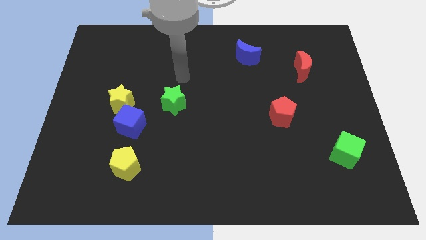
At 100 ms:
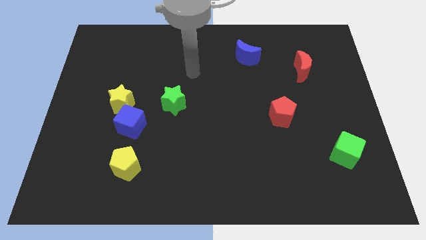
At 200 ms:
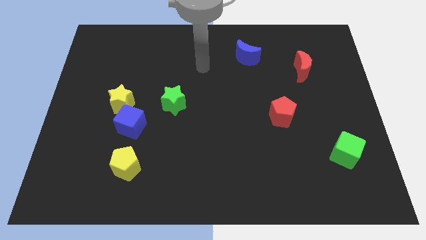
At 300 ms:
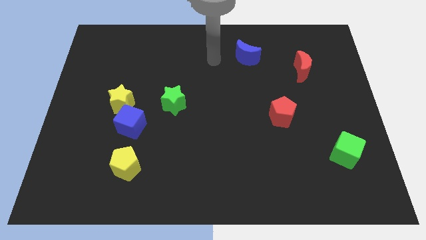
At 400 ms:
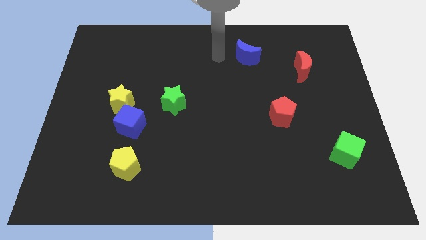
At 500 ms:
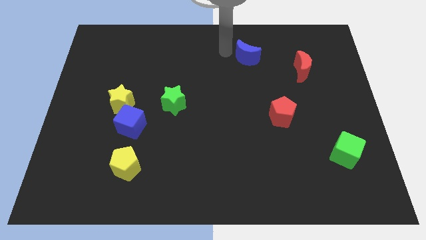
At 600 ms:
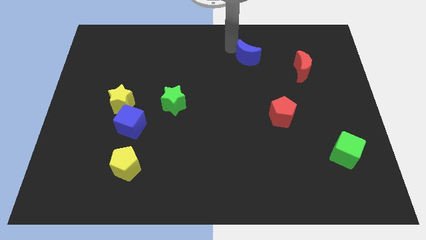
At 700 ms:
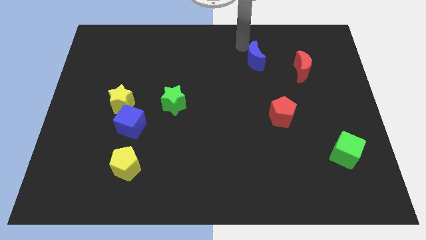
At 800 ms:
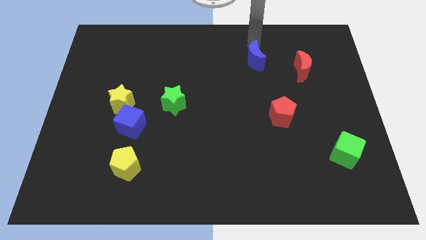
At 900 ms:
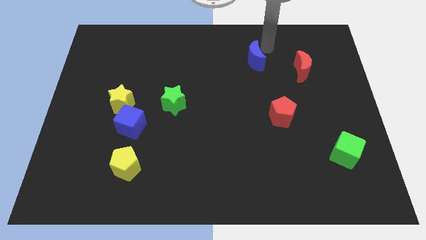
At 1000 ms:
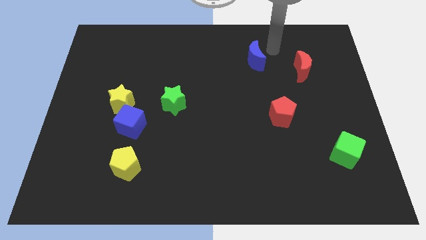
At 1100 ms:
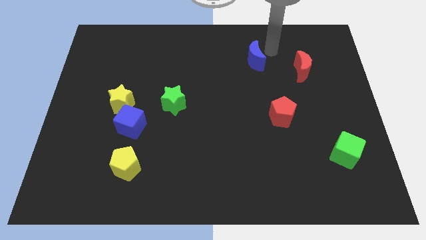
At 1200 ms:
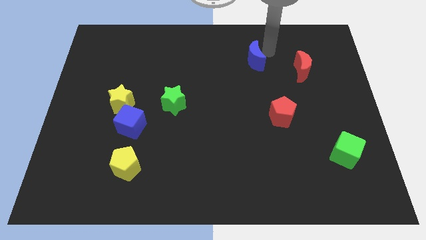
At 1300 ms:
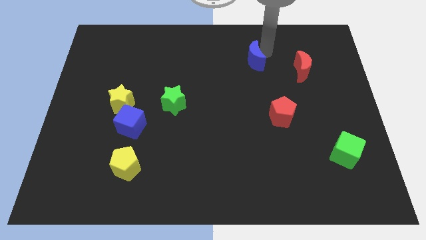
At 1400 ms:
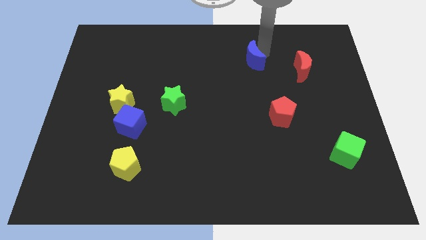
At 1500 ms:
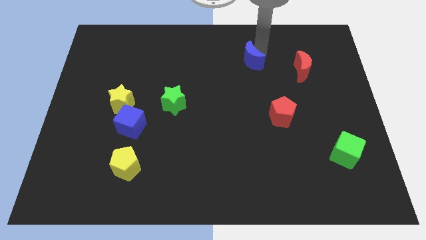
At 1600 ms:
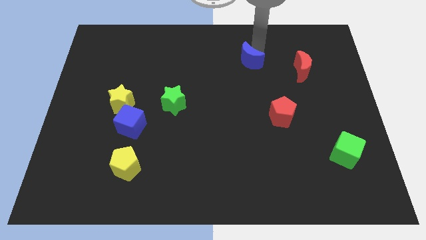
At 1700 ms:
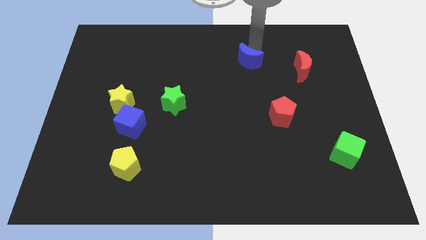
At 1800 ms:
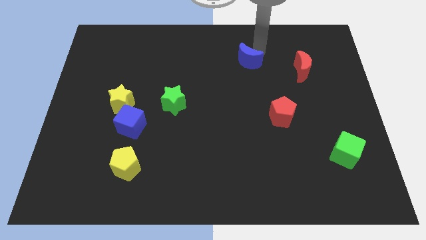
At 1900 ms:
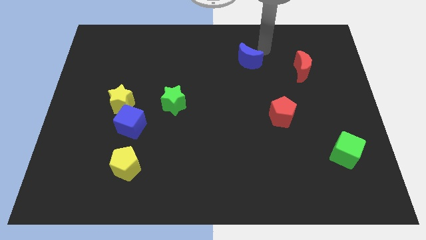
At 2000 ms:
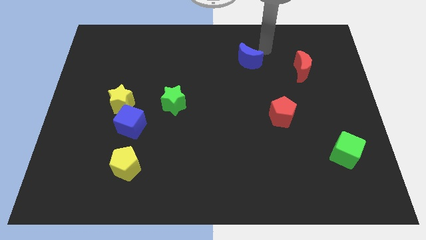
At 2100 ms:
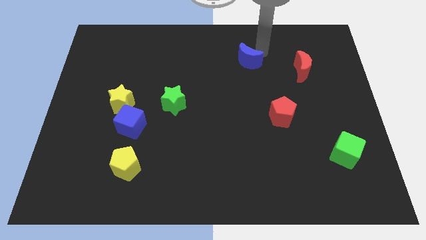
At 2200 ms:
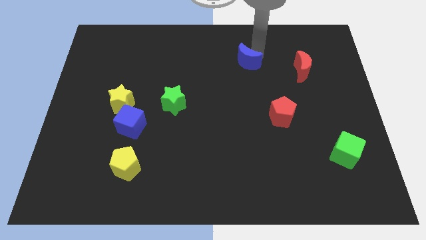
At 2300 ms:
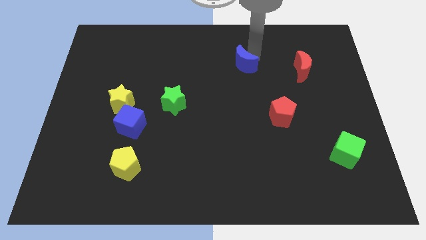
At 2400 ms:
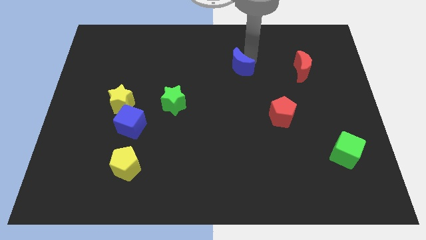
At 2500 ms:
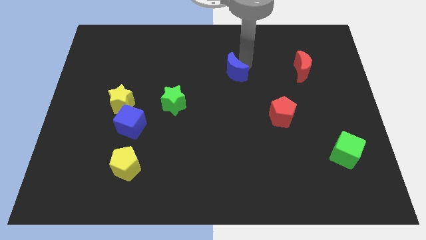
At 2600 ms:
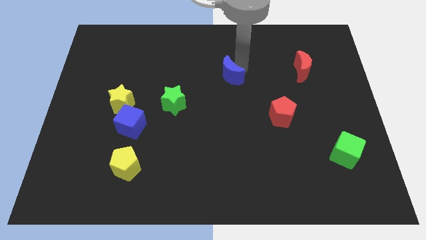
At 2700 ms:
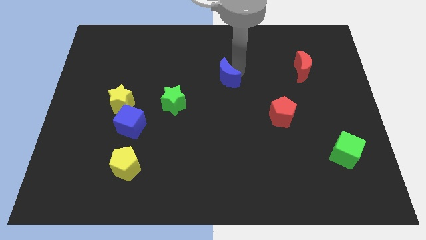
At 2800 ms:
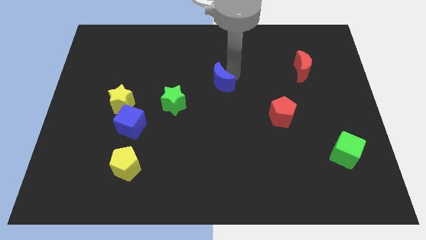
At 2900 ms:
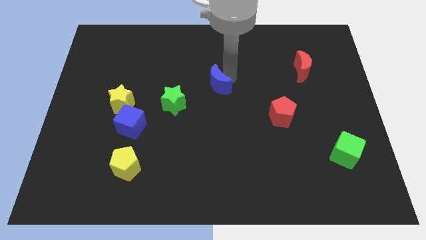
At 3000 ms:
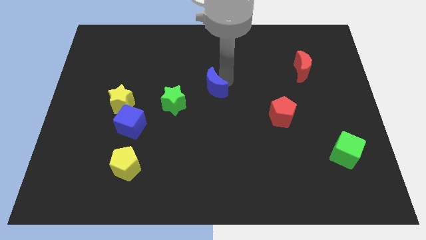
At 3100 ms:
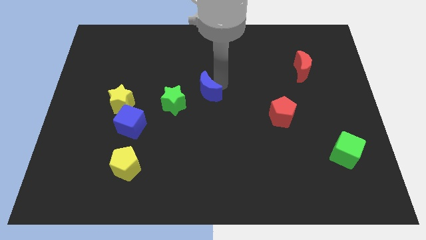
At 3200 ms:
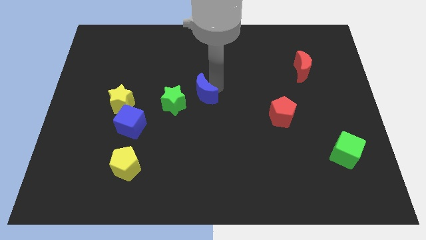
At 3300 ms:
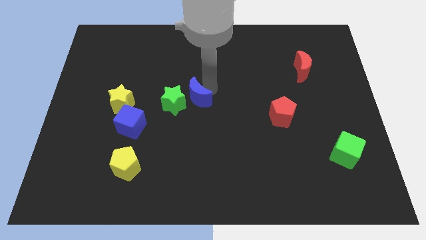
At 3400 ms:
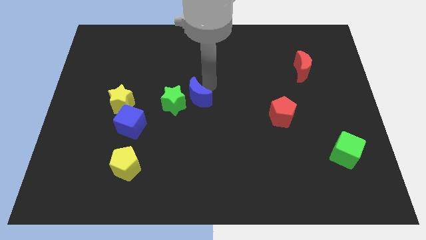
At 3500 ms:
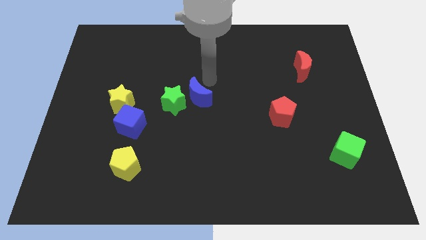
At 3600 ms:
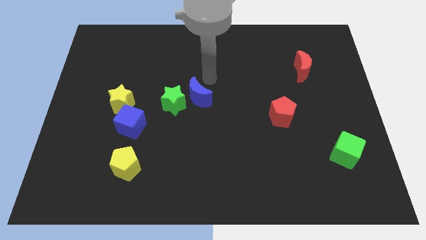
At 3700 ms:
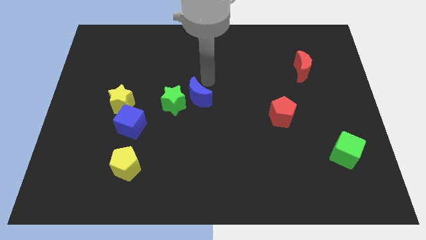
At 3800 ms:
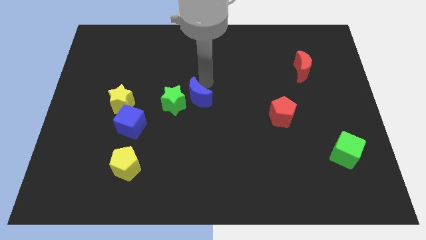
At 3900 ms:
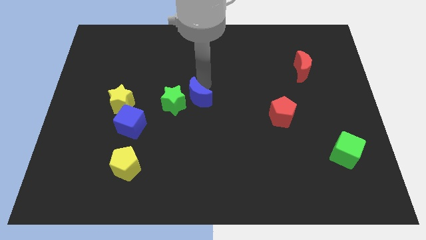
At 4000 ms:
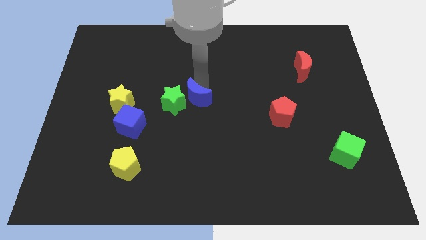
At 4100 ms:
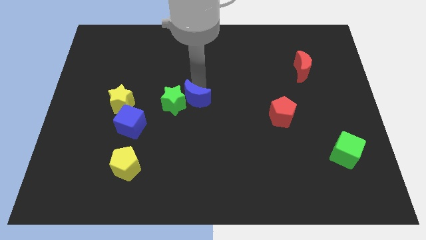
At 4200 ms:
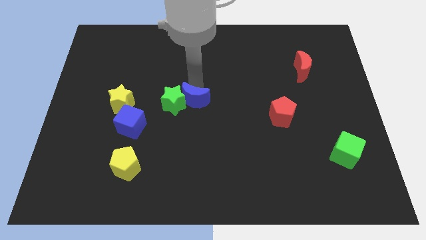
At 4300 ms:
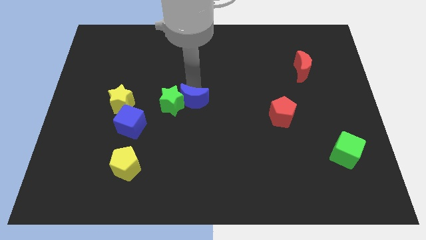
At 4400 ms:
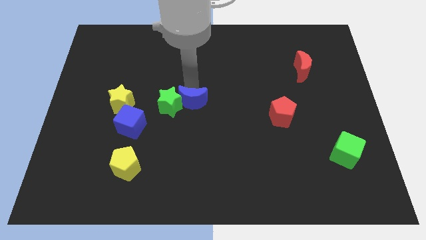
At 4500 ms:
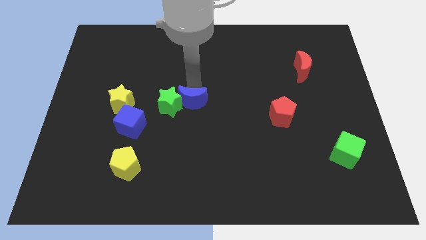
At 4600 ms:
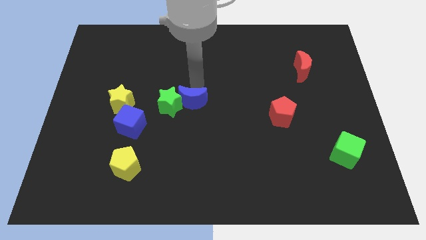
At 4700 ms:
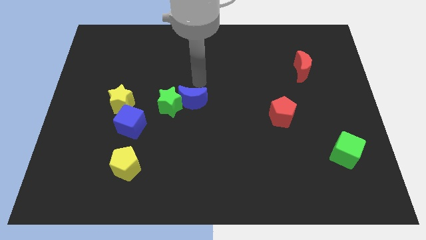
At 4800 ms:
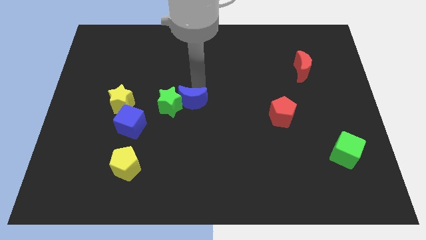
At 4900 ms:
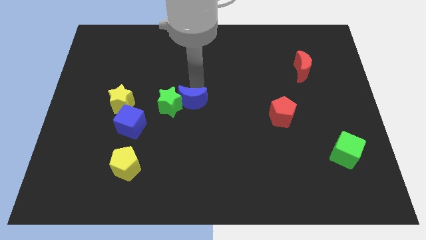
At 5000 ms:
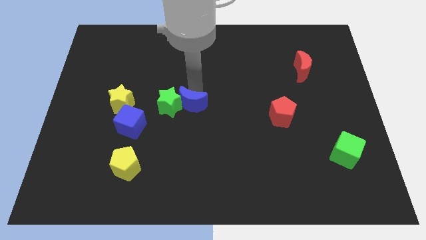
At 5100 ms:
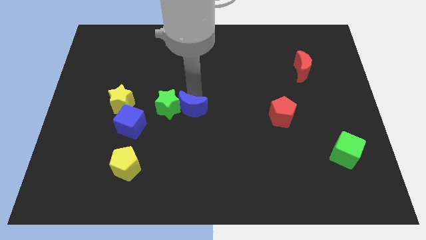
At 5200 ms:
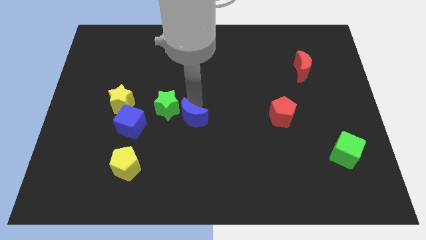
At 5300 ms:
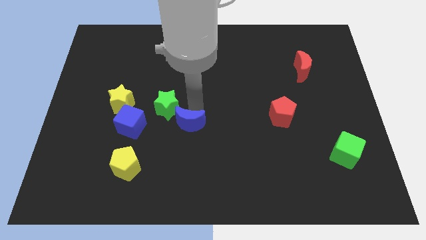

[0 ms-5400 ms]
put the blue moon to the bottom side of the green star
